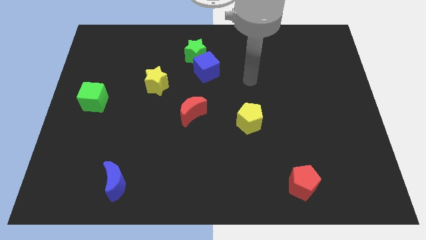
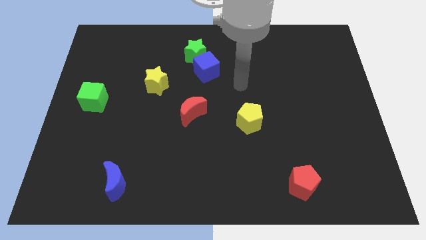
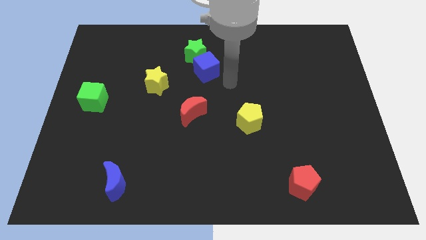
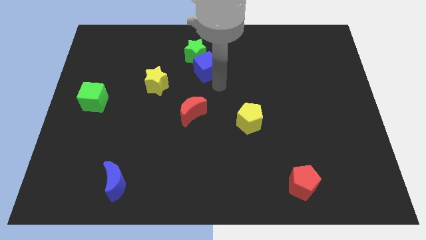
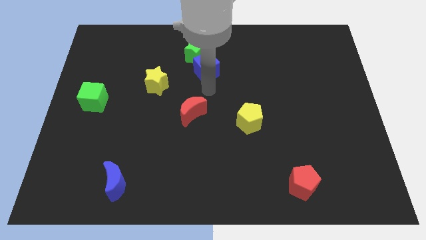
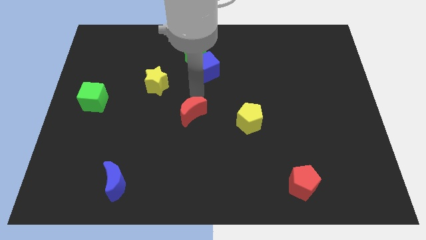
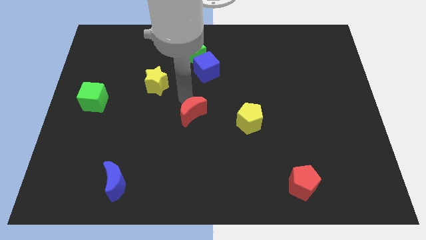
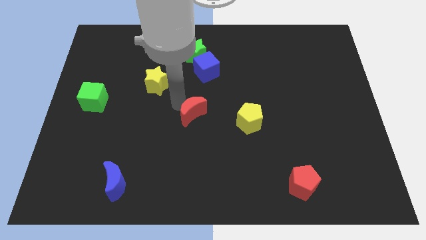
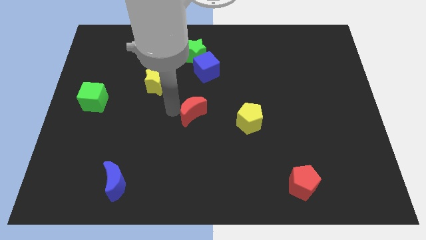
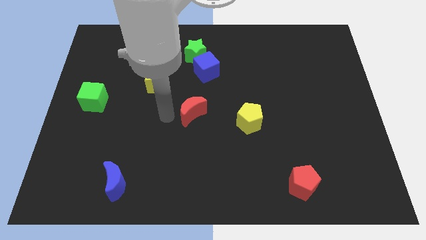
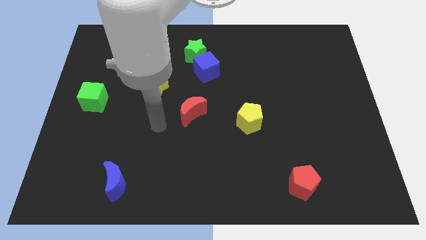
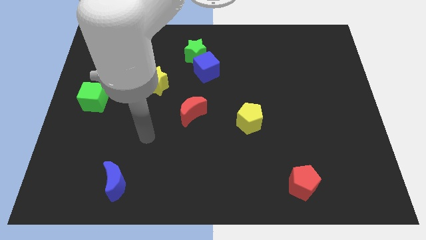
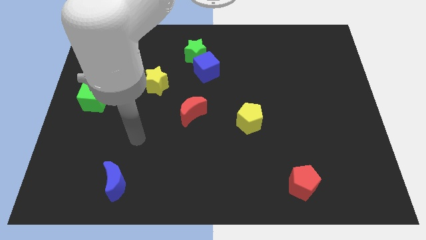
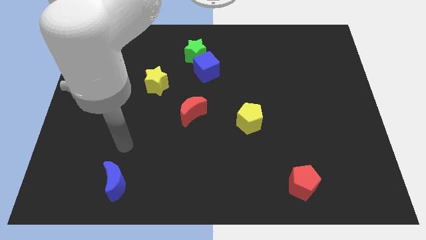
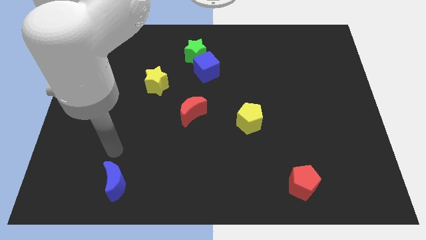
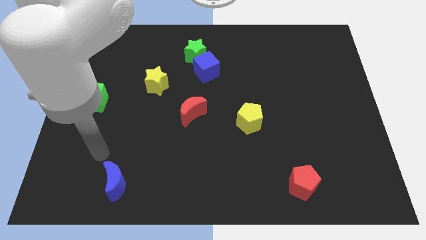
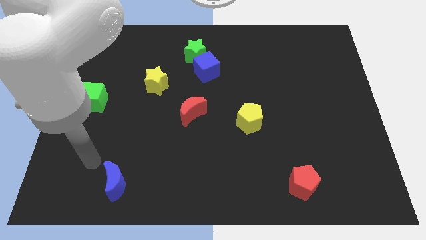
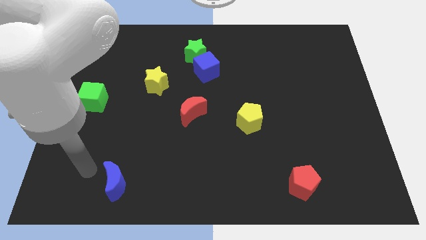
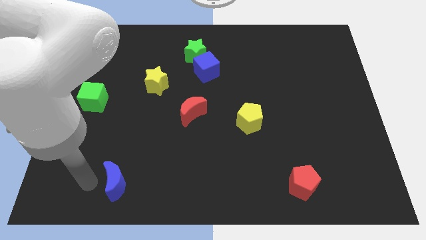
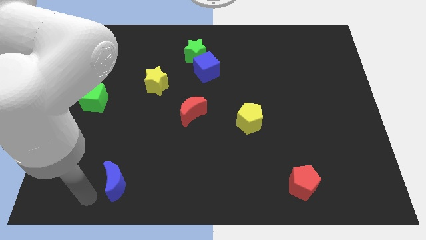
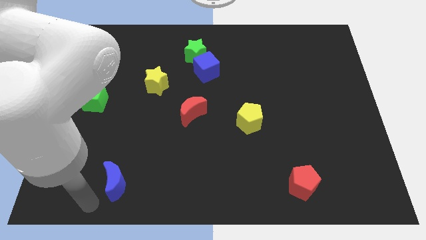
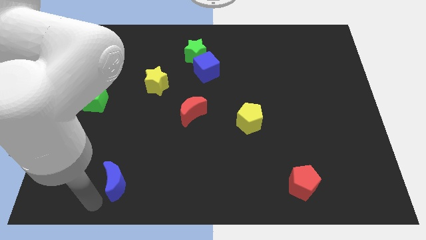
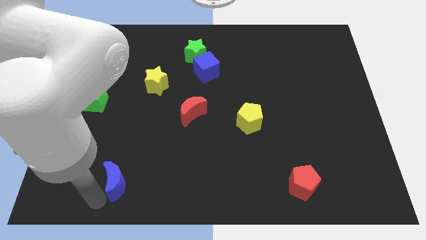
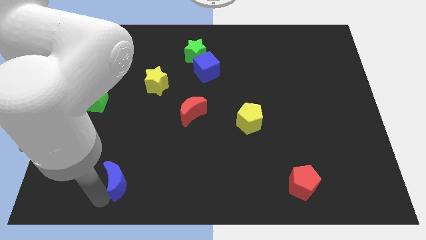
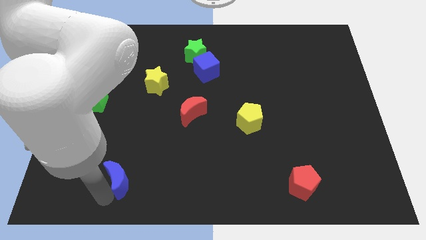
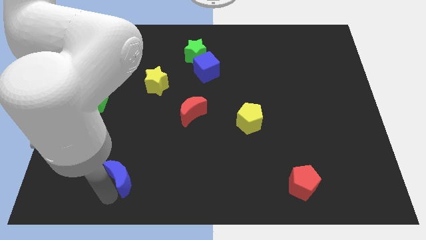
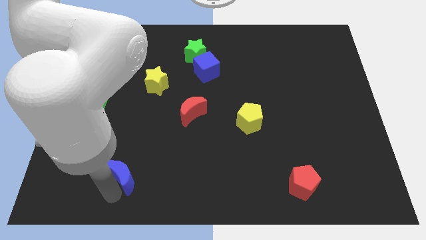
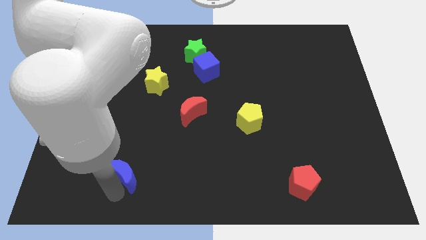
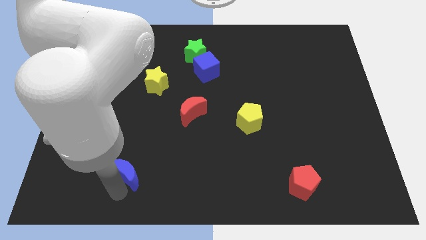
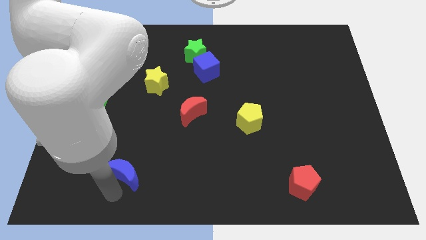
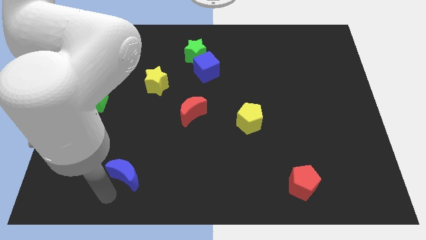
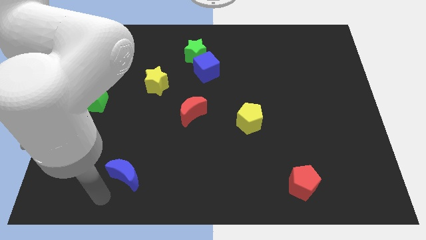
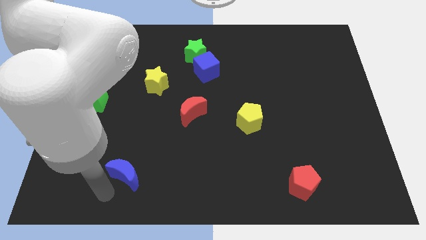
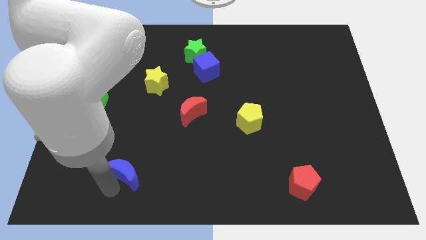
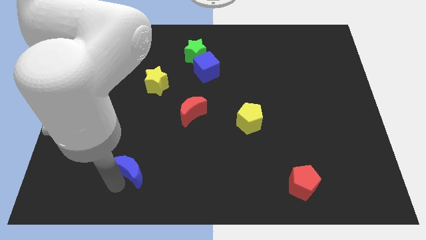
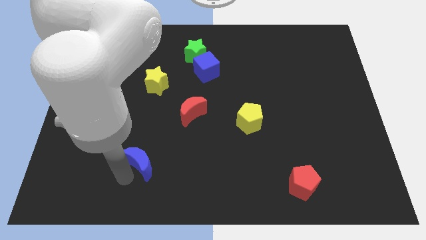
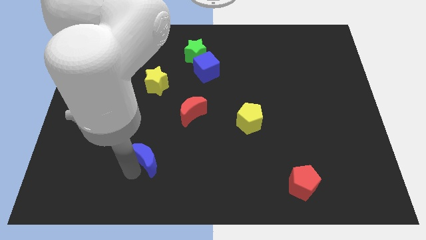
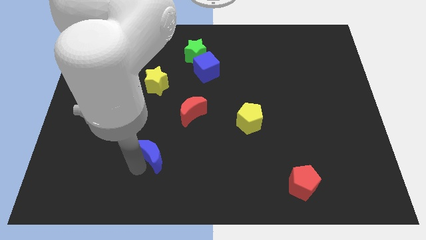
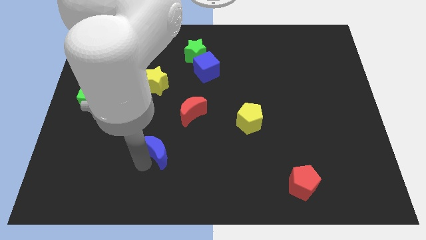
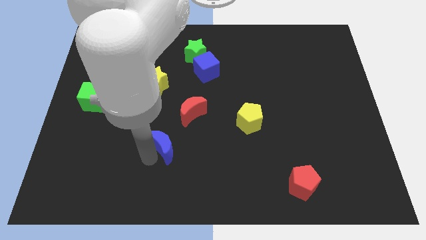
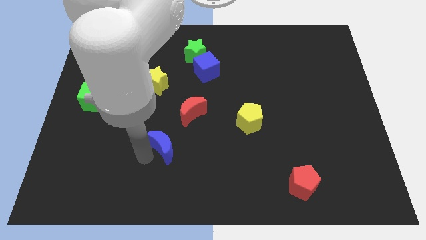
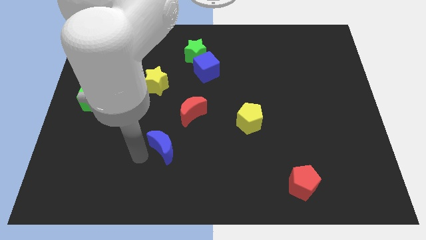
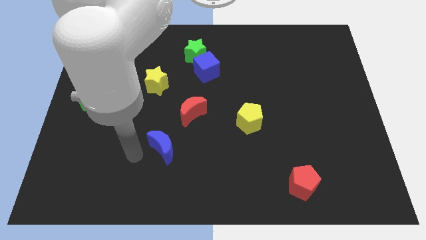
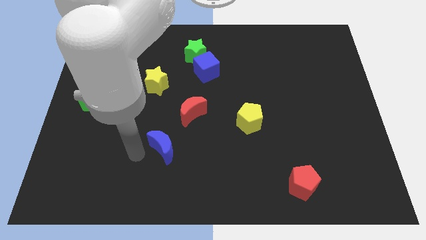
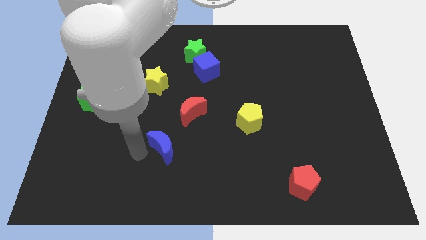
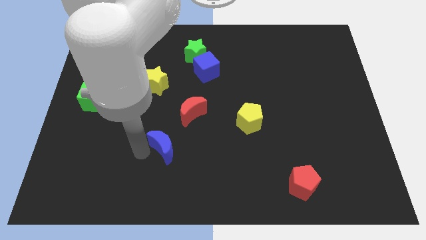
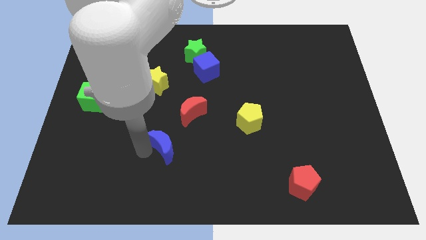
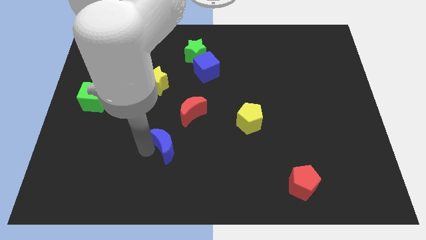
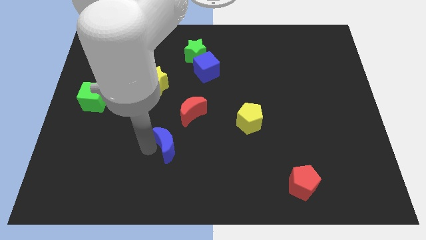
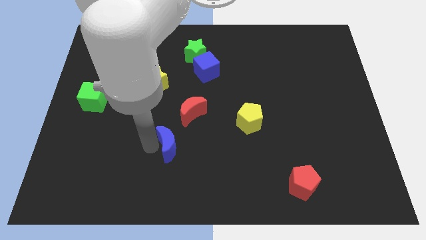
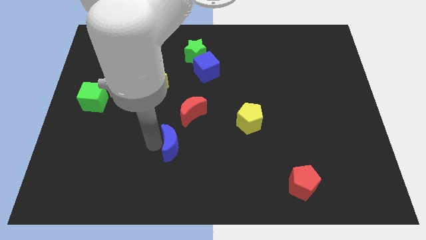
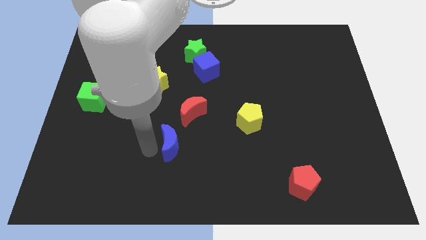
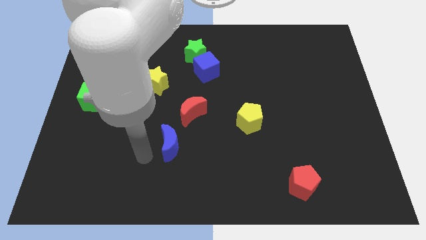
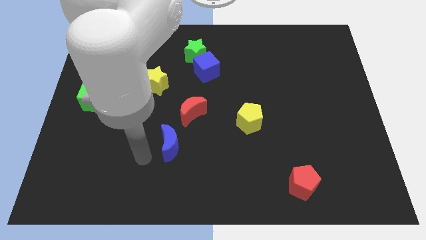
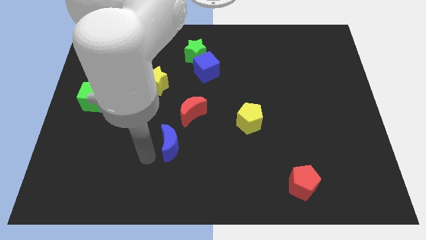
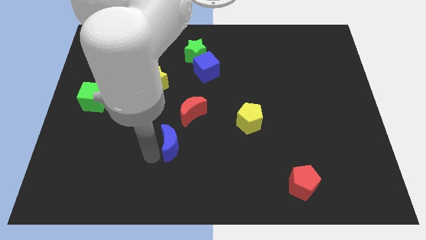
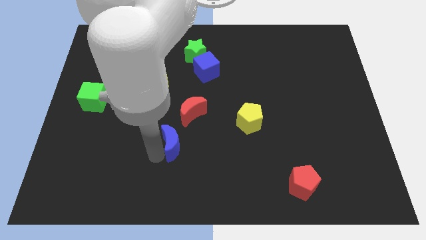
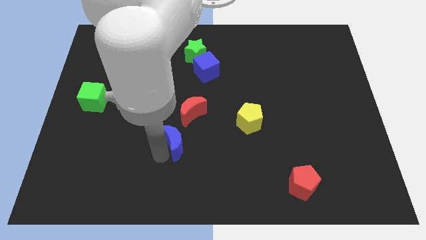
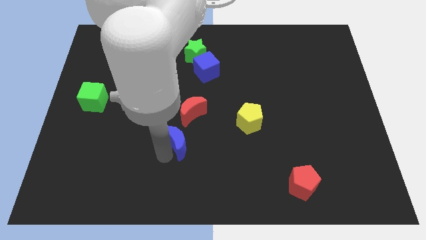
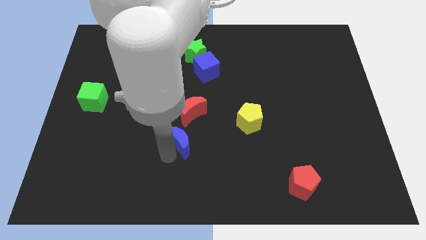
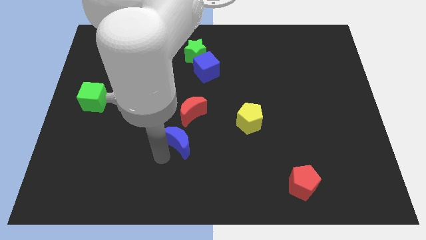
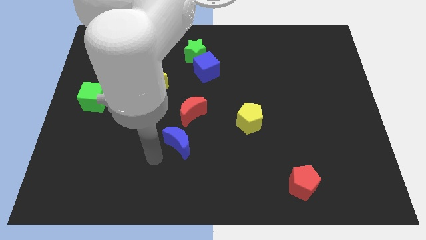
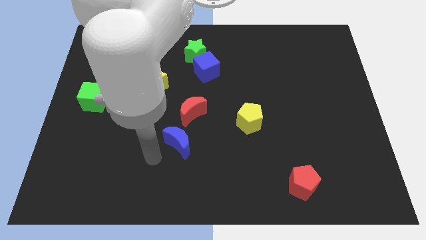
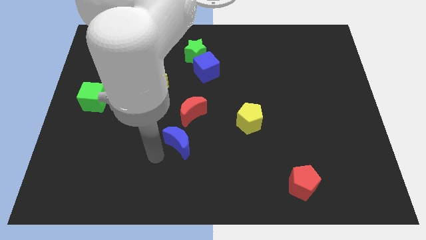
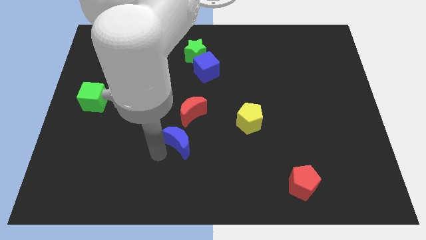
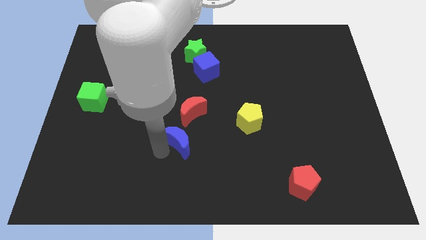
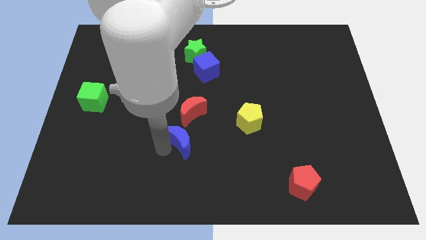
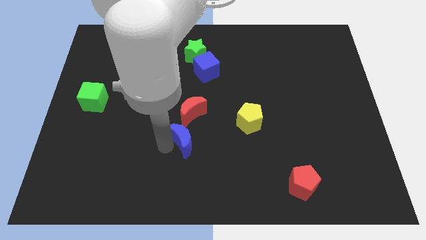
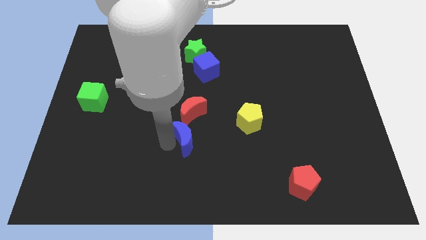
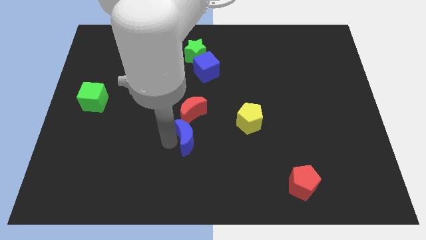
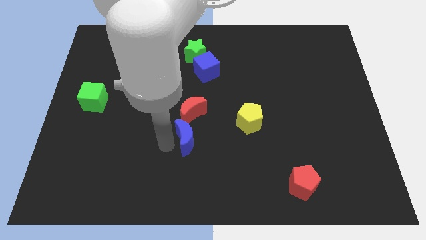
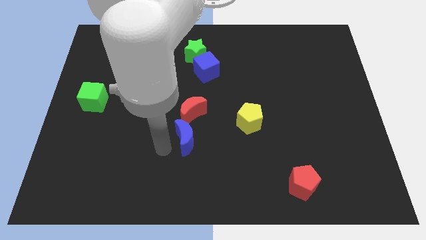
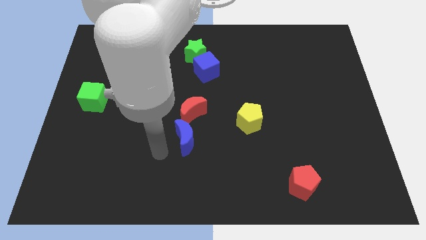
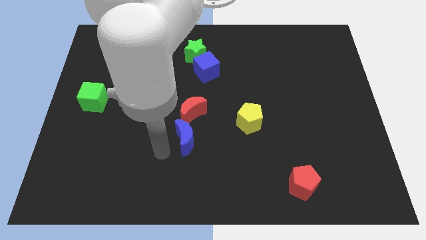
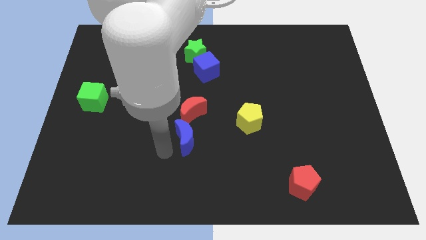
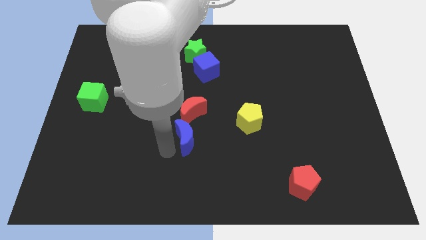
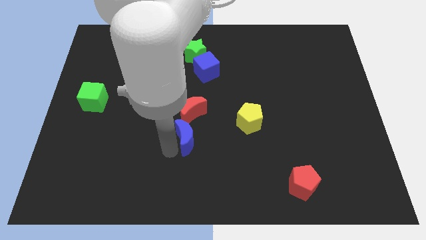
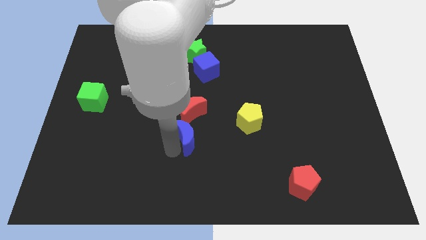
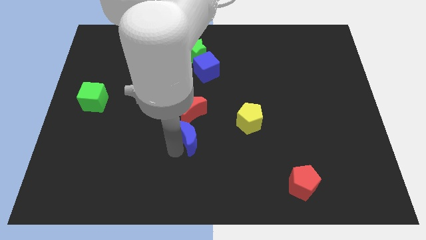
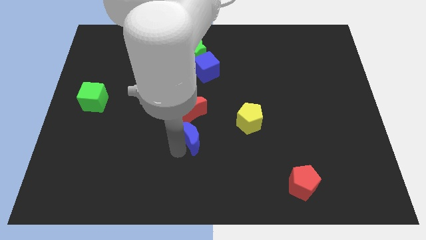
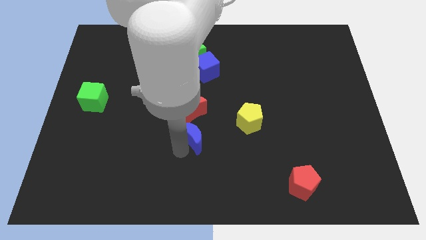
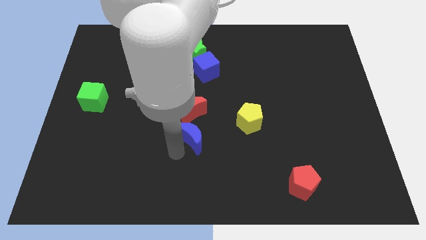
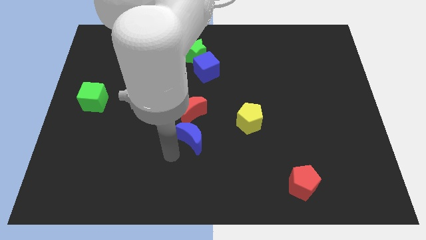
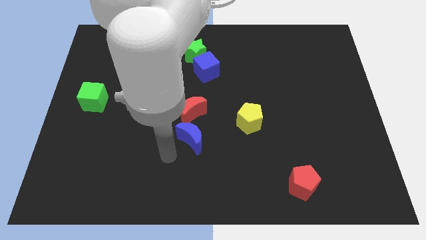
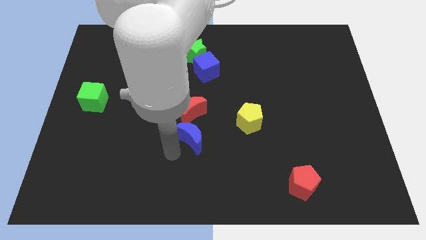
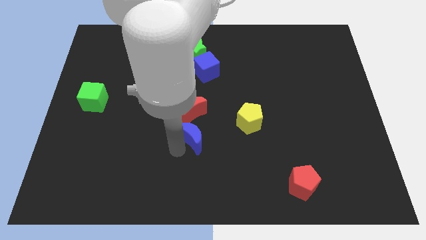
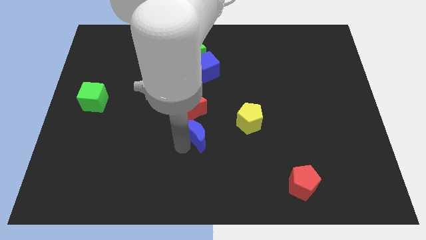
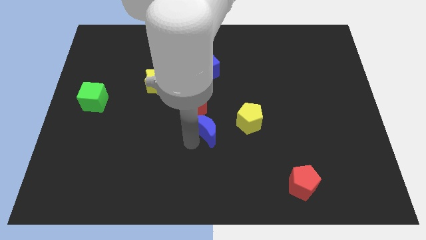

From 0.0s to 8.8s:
move the blue moon up and right
